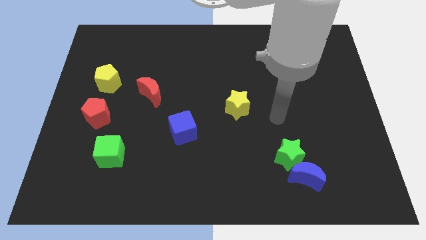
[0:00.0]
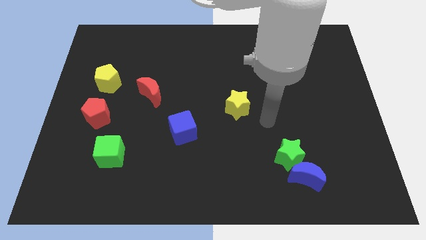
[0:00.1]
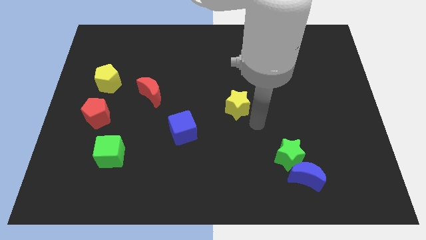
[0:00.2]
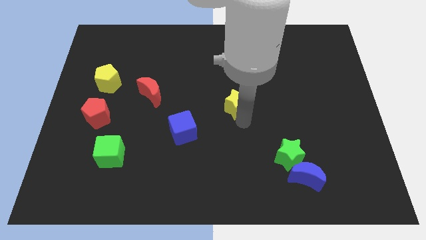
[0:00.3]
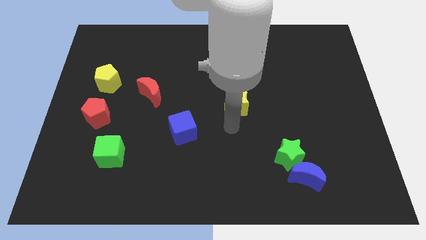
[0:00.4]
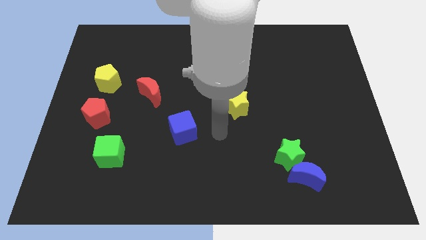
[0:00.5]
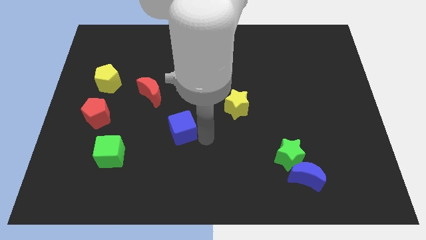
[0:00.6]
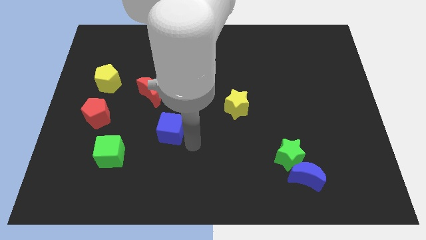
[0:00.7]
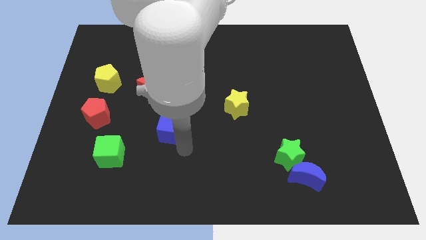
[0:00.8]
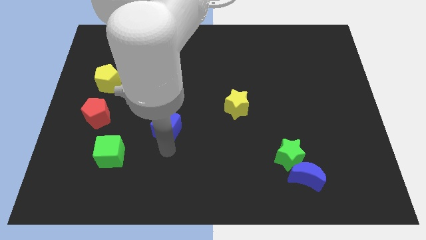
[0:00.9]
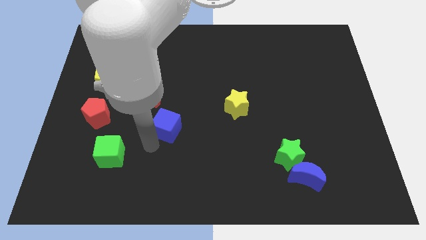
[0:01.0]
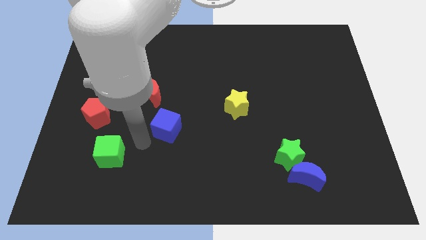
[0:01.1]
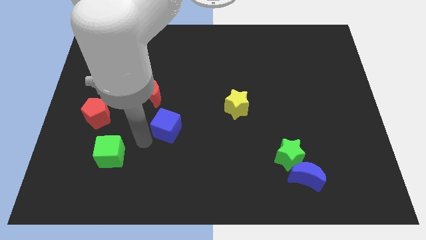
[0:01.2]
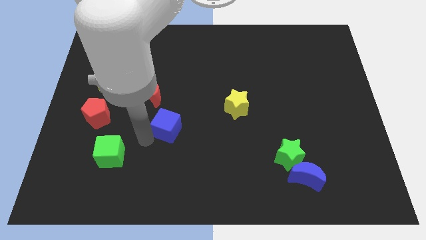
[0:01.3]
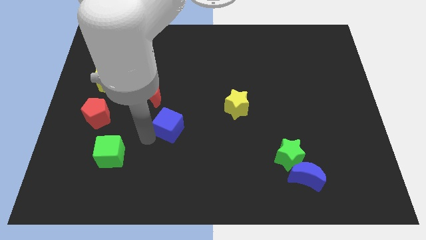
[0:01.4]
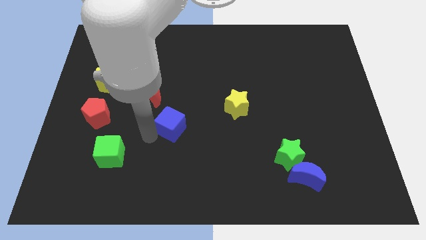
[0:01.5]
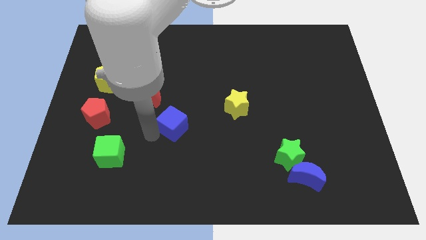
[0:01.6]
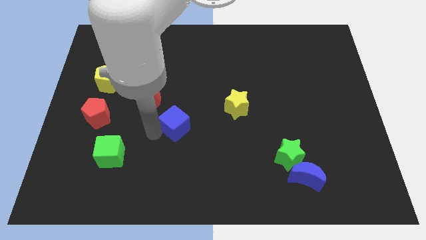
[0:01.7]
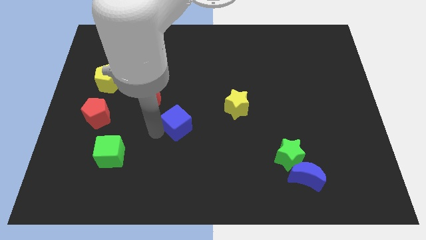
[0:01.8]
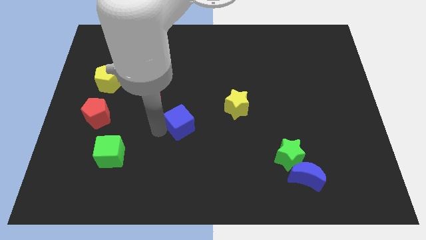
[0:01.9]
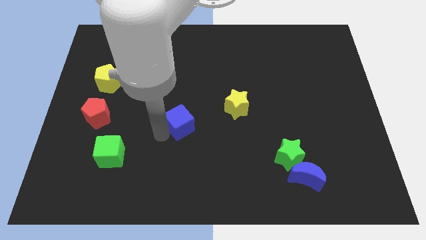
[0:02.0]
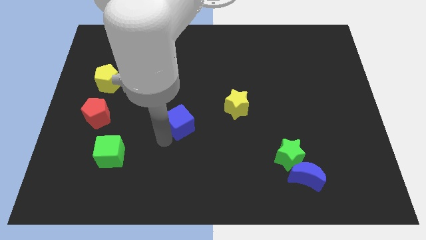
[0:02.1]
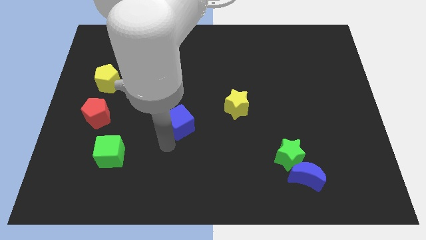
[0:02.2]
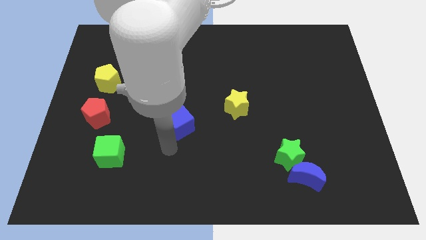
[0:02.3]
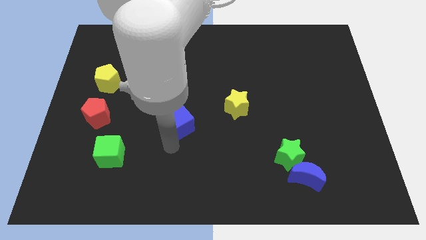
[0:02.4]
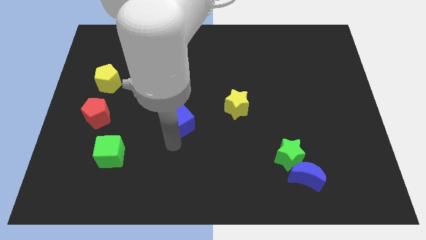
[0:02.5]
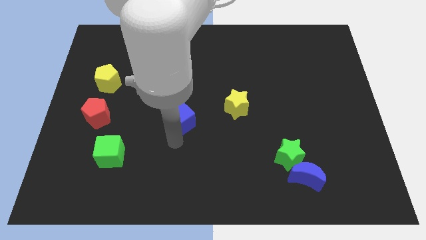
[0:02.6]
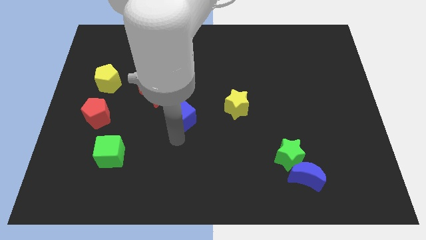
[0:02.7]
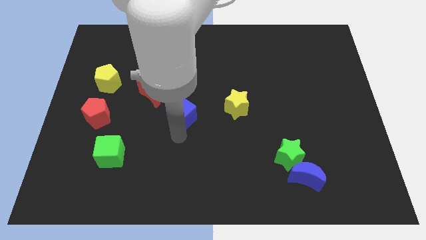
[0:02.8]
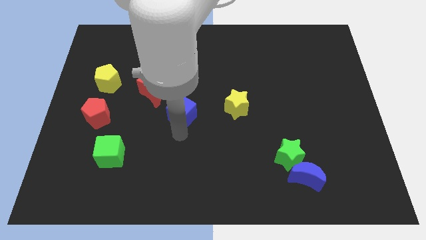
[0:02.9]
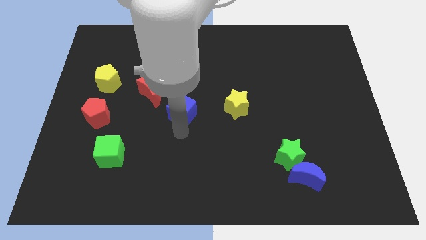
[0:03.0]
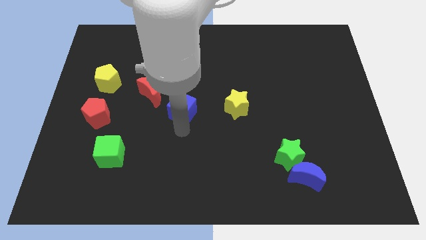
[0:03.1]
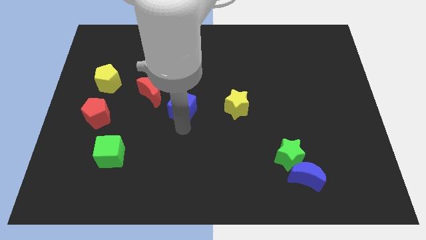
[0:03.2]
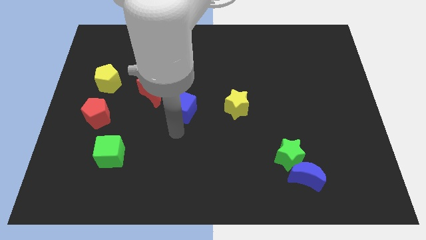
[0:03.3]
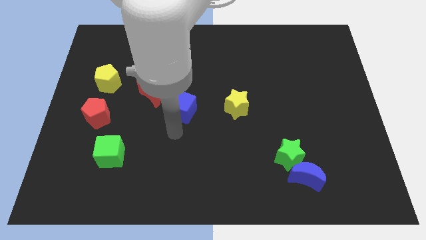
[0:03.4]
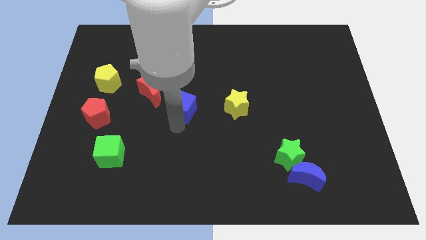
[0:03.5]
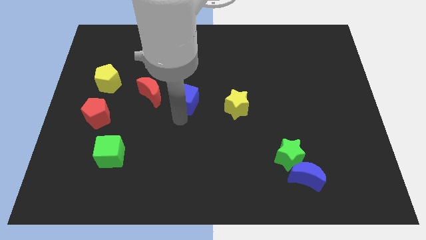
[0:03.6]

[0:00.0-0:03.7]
slide the blue cube slightly up

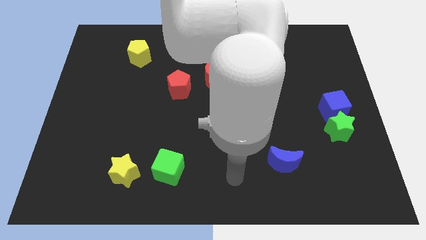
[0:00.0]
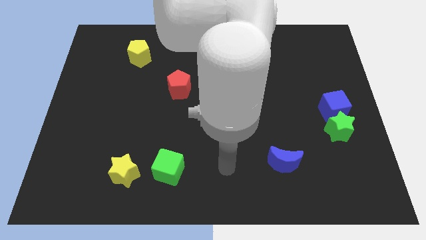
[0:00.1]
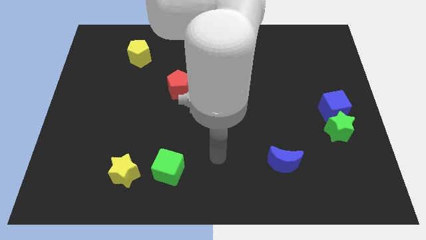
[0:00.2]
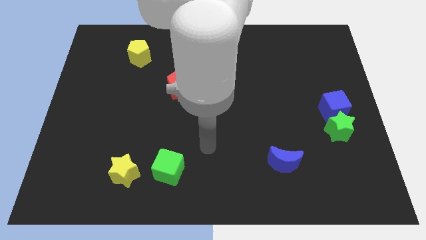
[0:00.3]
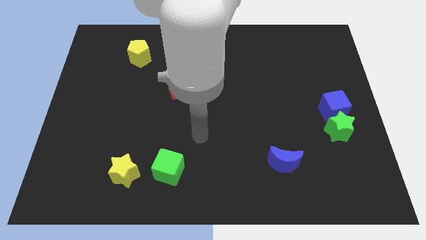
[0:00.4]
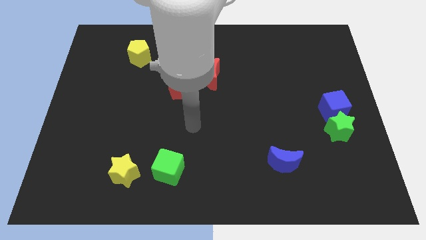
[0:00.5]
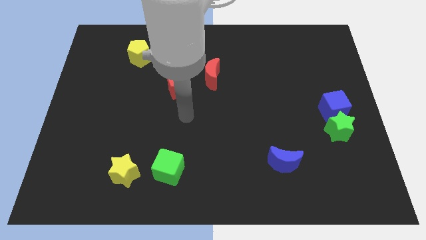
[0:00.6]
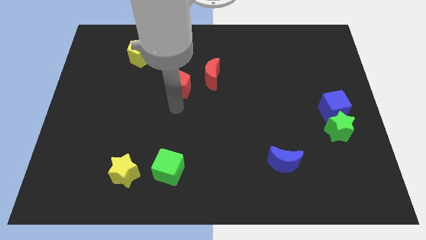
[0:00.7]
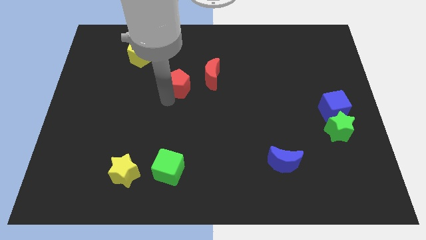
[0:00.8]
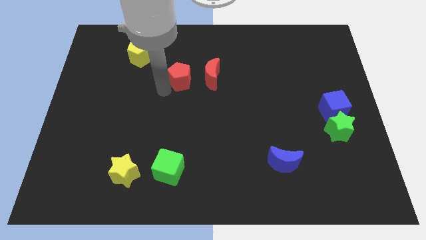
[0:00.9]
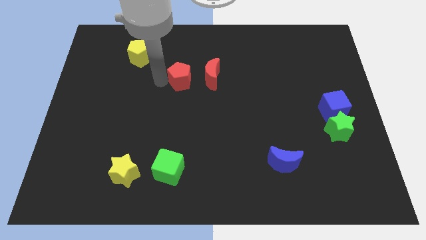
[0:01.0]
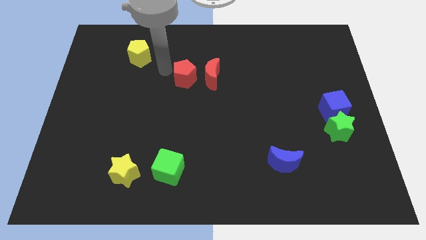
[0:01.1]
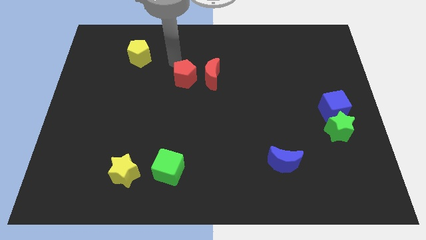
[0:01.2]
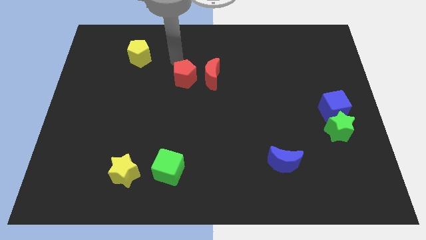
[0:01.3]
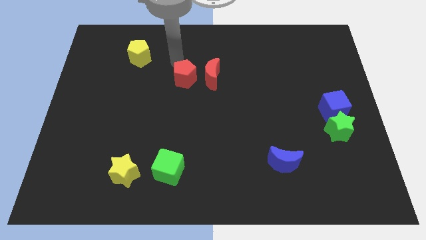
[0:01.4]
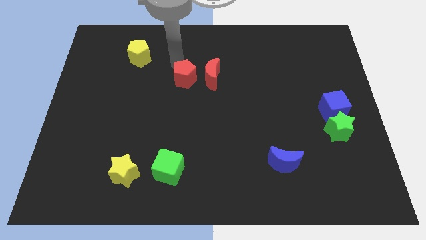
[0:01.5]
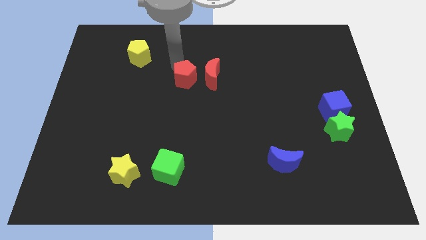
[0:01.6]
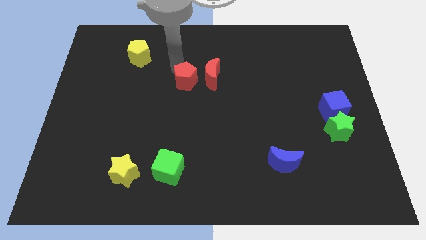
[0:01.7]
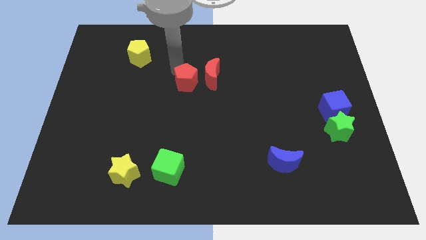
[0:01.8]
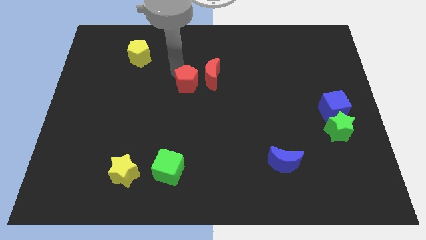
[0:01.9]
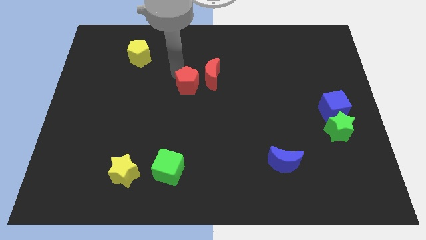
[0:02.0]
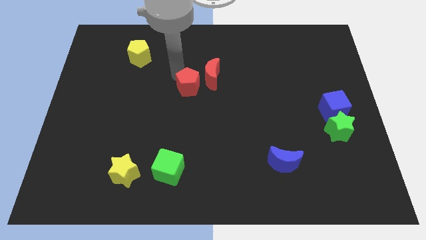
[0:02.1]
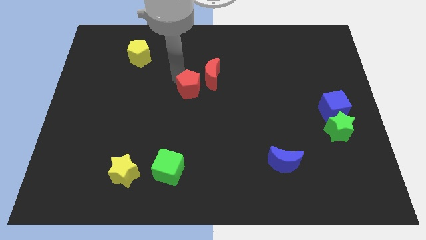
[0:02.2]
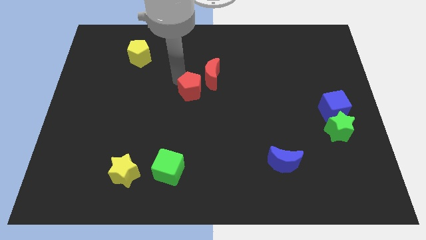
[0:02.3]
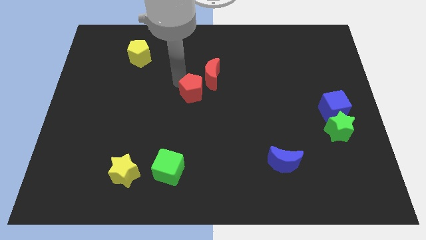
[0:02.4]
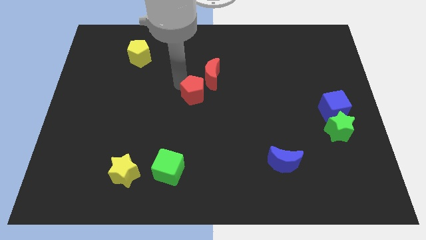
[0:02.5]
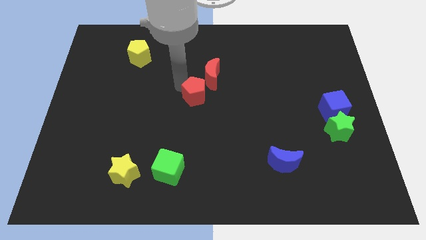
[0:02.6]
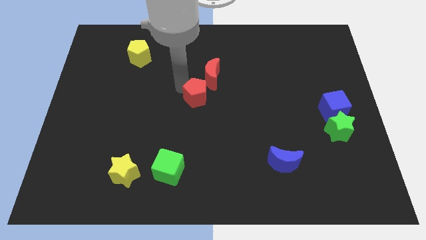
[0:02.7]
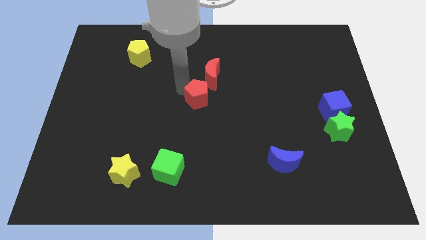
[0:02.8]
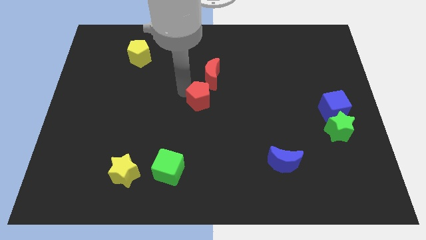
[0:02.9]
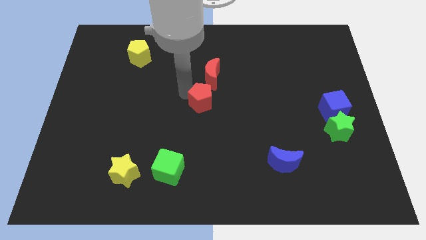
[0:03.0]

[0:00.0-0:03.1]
slightly slide the red pentagon diagonally downwards and to the right

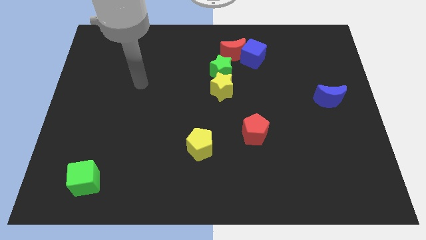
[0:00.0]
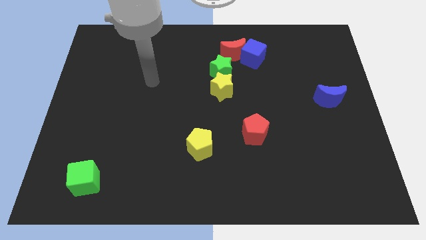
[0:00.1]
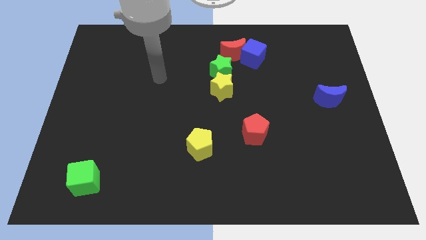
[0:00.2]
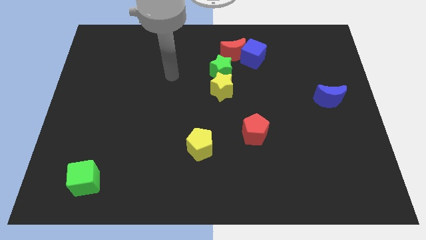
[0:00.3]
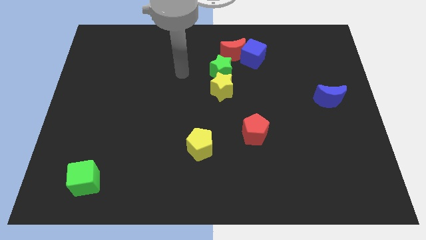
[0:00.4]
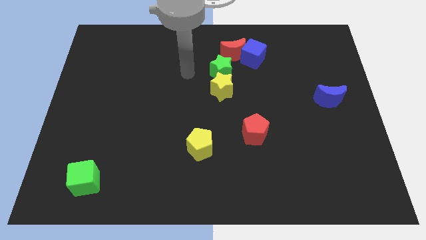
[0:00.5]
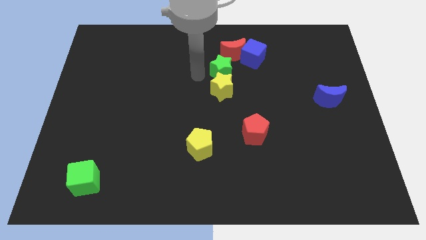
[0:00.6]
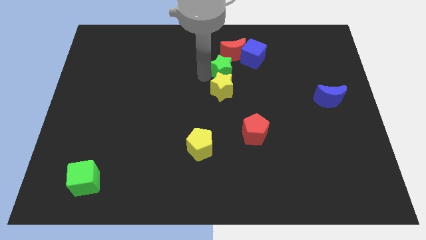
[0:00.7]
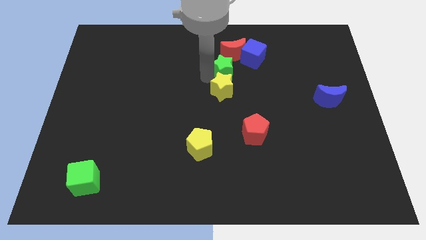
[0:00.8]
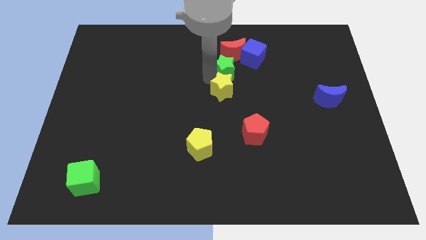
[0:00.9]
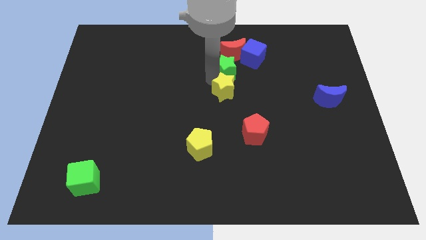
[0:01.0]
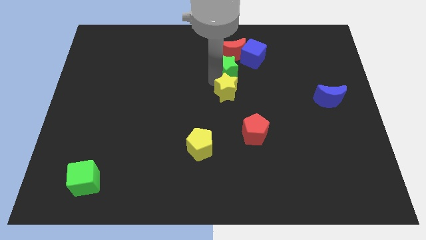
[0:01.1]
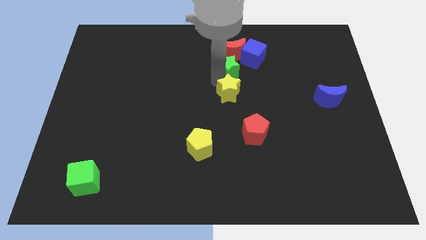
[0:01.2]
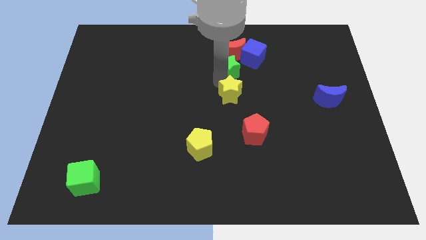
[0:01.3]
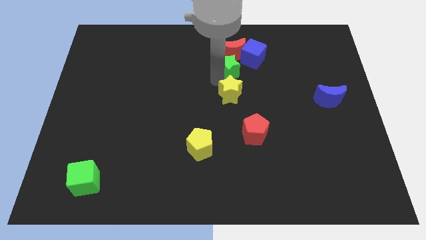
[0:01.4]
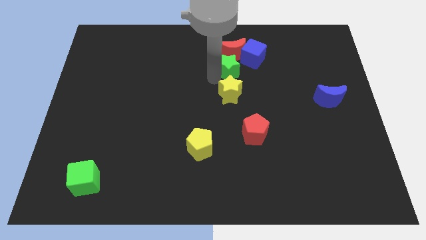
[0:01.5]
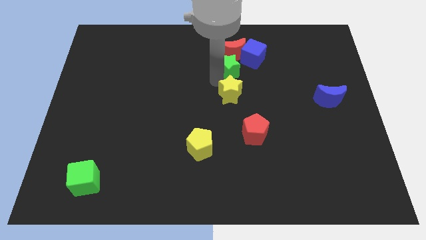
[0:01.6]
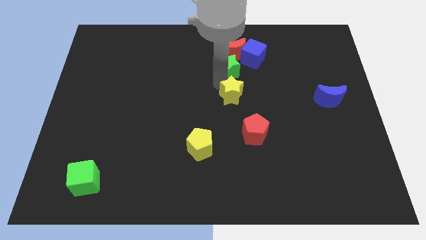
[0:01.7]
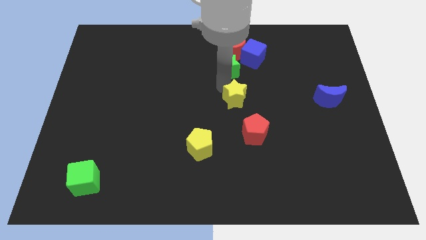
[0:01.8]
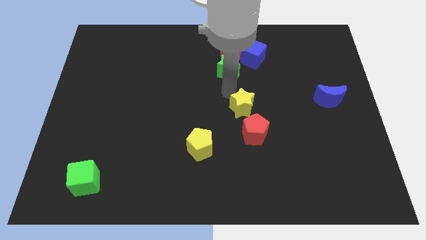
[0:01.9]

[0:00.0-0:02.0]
slightly push the yellow star diagonally downwards and right
